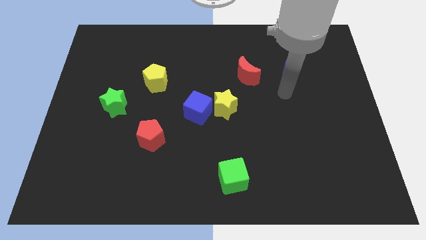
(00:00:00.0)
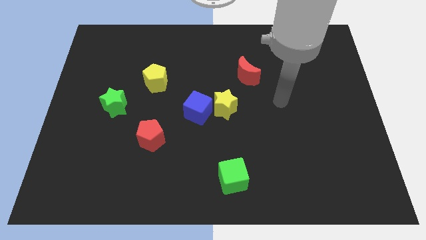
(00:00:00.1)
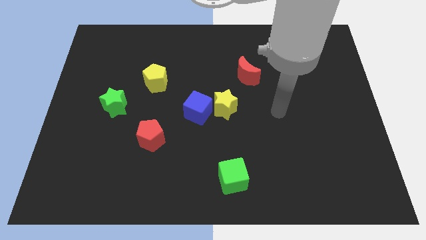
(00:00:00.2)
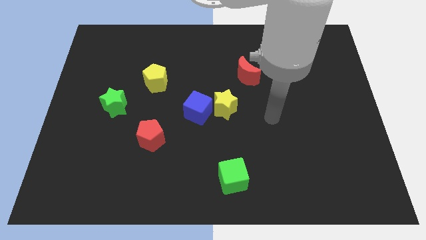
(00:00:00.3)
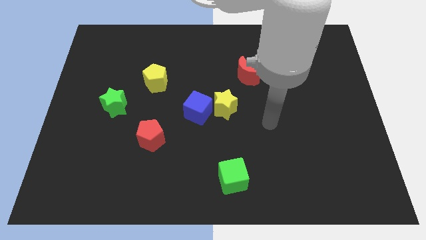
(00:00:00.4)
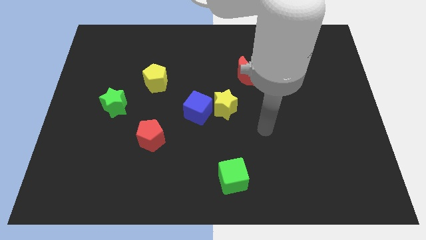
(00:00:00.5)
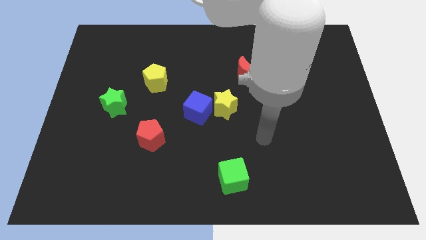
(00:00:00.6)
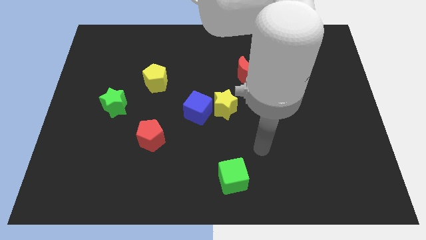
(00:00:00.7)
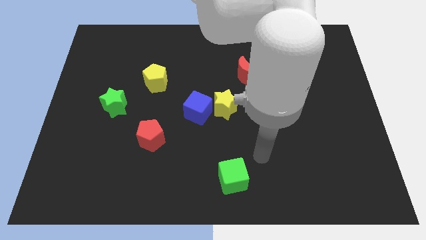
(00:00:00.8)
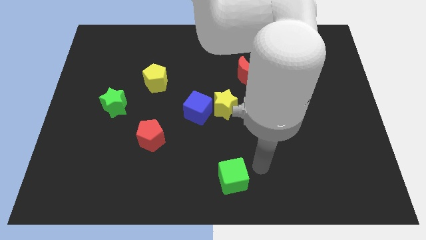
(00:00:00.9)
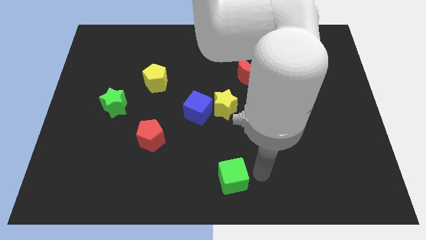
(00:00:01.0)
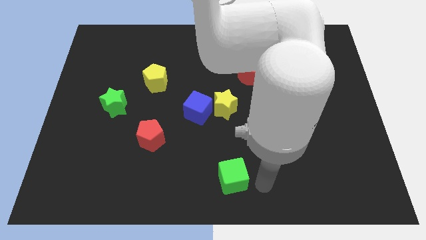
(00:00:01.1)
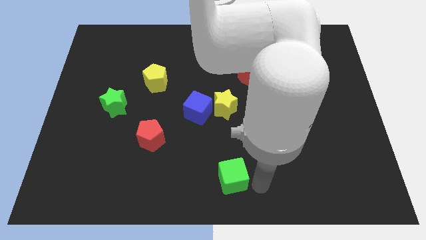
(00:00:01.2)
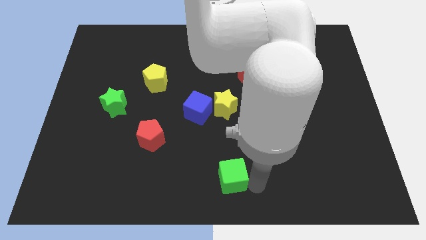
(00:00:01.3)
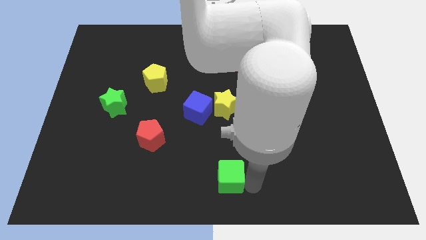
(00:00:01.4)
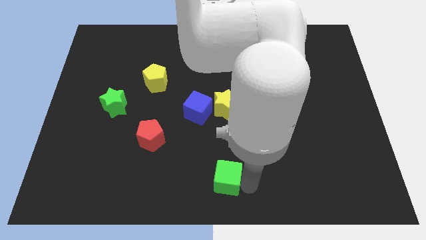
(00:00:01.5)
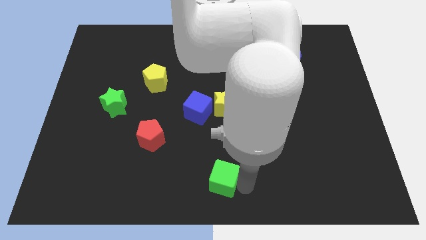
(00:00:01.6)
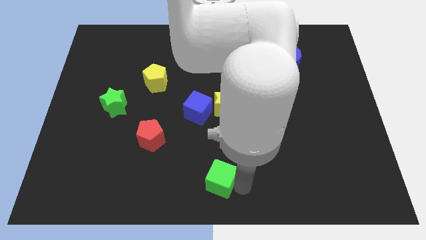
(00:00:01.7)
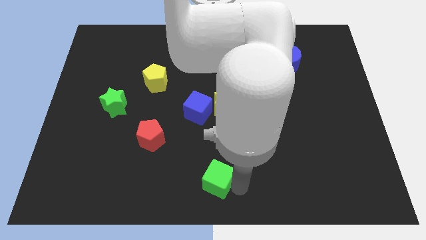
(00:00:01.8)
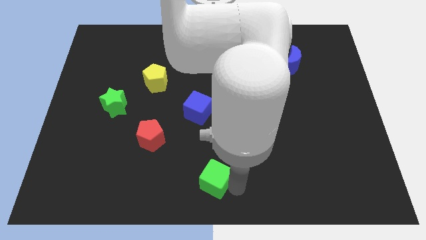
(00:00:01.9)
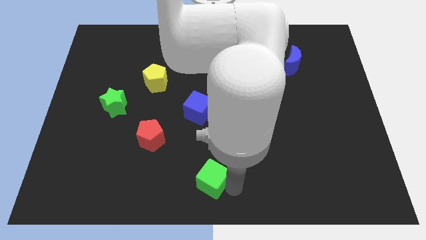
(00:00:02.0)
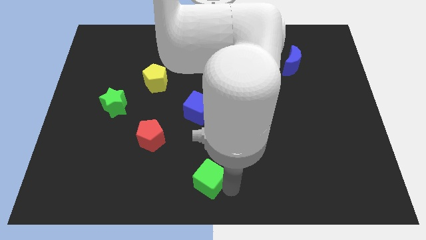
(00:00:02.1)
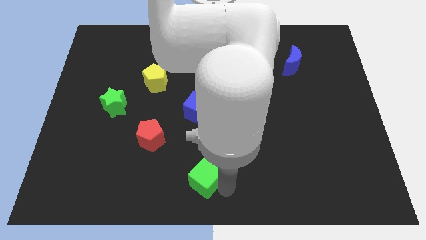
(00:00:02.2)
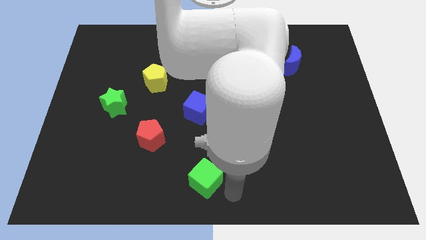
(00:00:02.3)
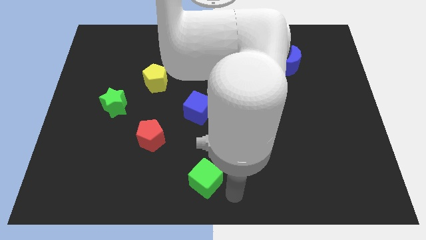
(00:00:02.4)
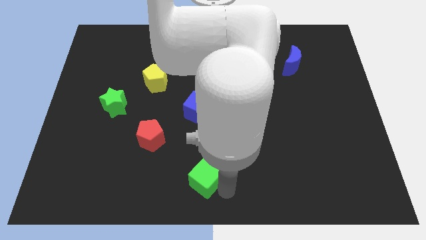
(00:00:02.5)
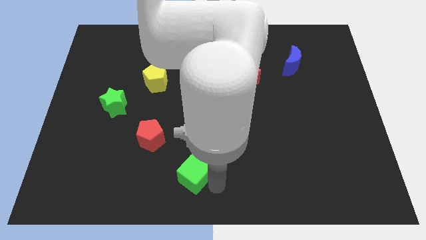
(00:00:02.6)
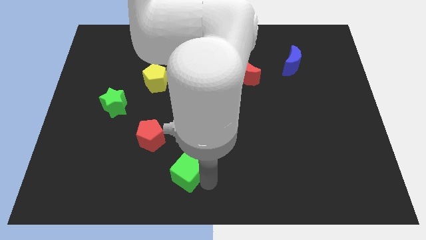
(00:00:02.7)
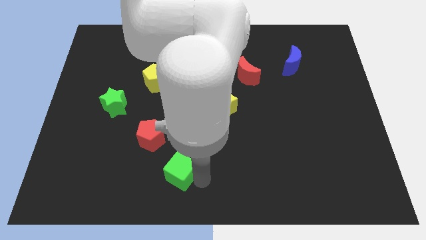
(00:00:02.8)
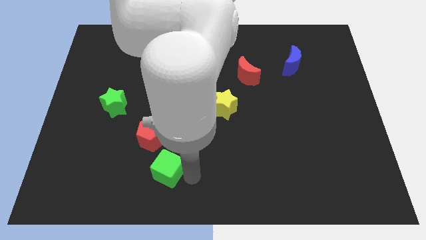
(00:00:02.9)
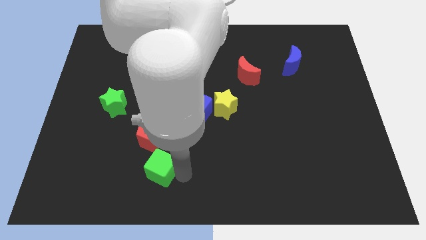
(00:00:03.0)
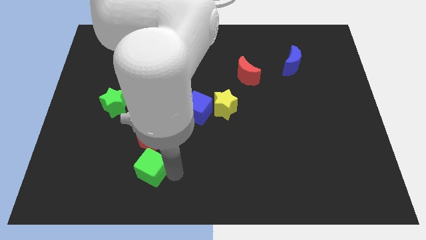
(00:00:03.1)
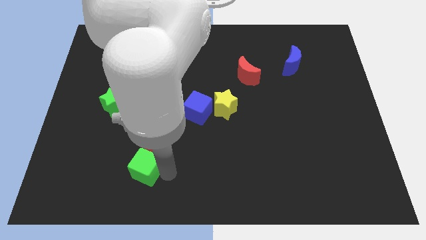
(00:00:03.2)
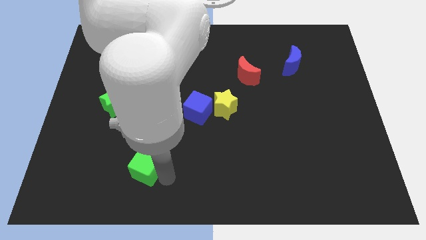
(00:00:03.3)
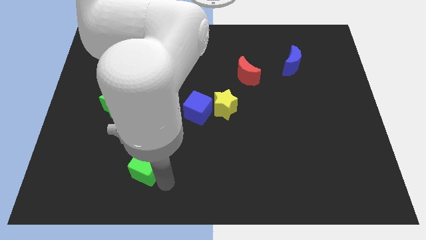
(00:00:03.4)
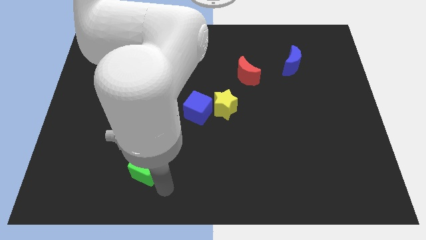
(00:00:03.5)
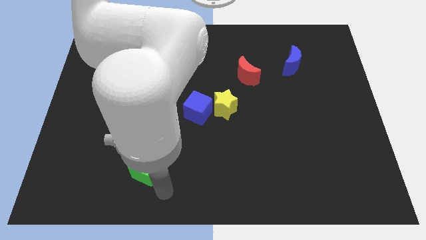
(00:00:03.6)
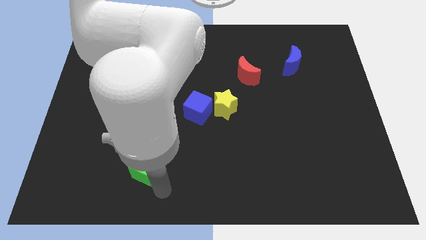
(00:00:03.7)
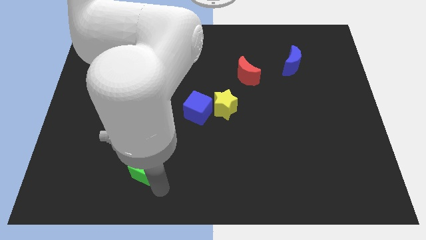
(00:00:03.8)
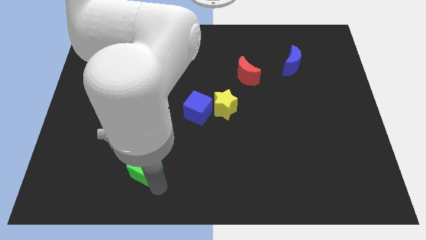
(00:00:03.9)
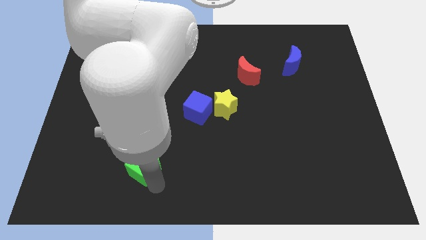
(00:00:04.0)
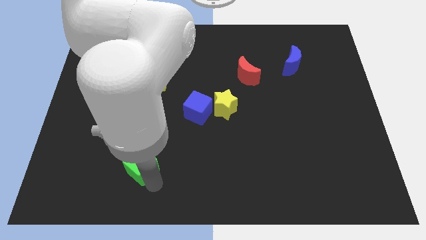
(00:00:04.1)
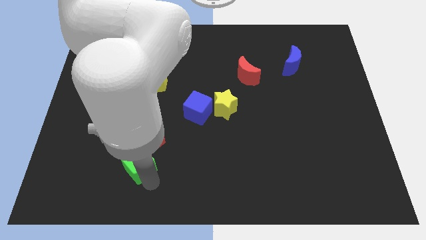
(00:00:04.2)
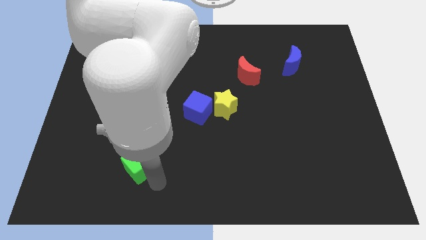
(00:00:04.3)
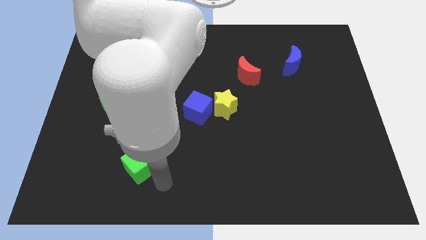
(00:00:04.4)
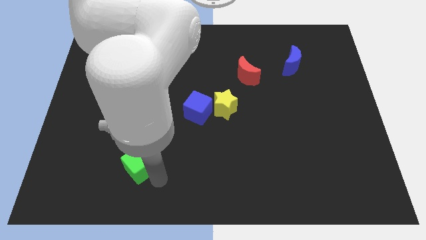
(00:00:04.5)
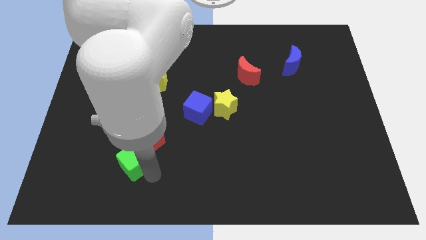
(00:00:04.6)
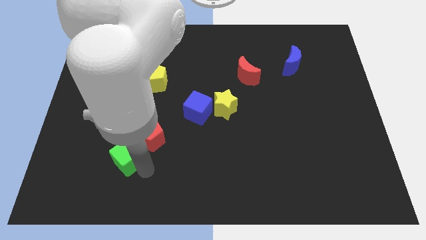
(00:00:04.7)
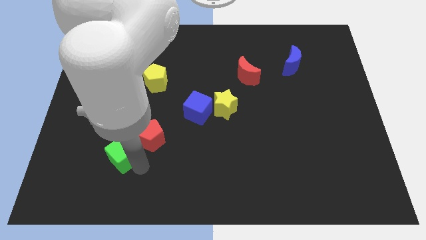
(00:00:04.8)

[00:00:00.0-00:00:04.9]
push the green cube just left of the red pentagon

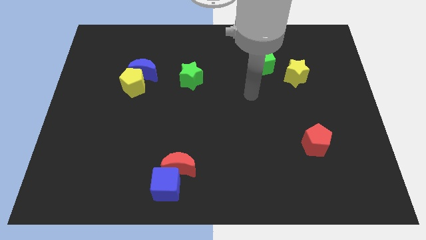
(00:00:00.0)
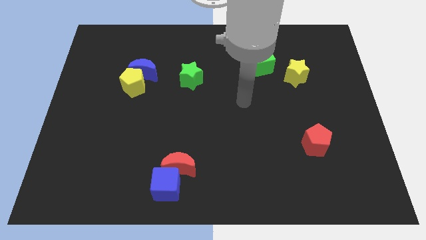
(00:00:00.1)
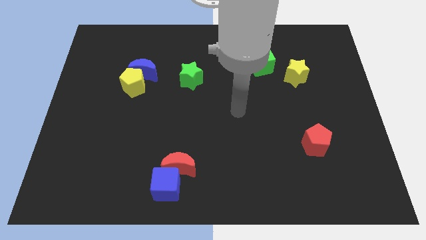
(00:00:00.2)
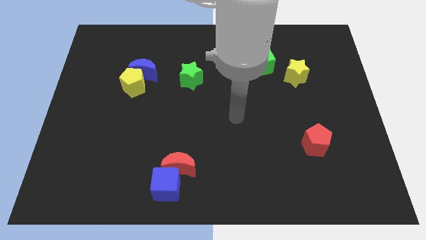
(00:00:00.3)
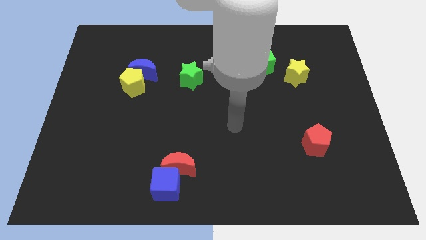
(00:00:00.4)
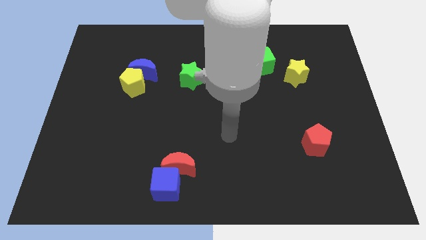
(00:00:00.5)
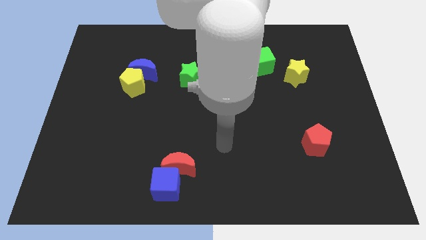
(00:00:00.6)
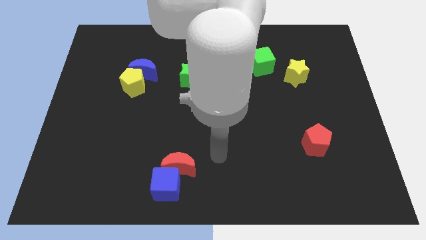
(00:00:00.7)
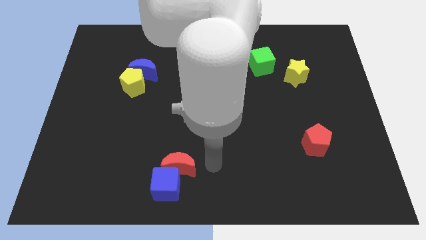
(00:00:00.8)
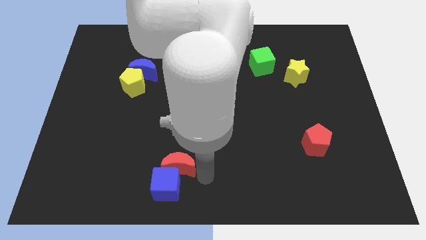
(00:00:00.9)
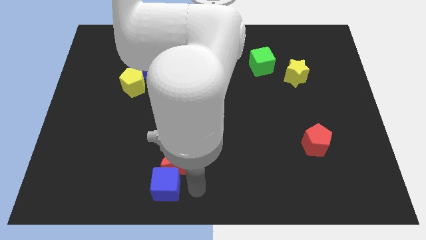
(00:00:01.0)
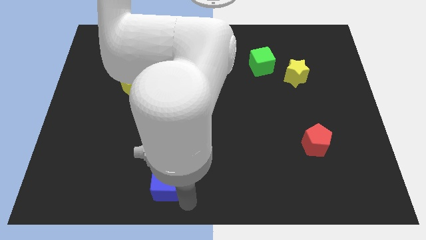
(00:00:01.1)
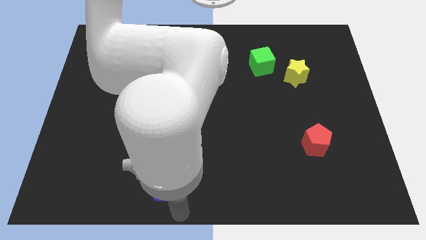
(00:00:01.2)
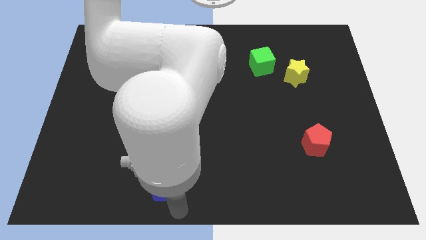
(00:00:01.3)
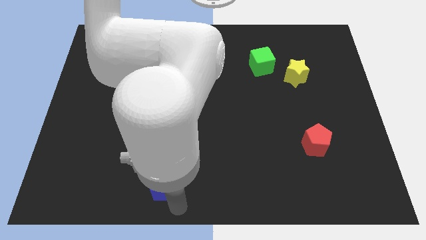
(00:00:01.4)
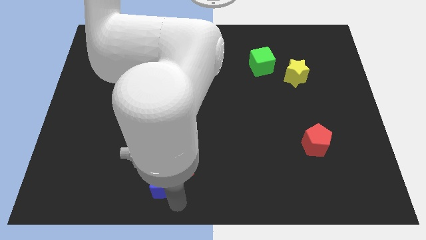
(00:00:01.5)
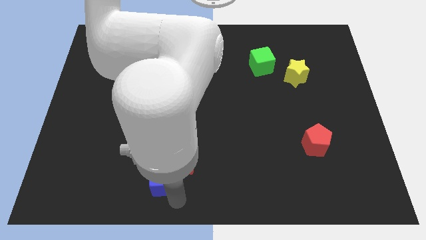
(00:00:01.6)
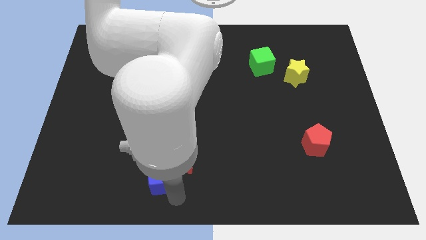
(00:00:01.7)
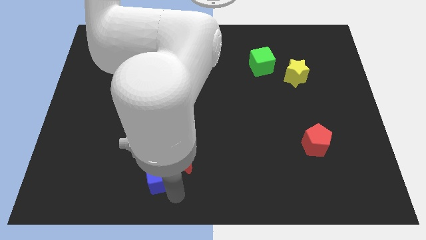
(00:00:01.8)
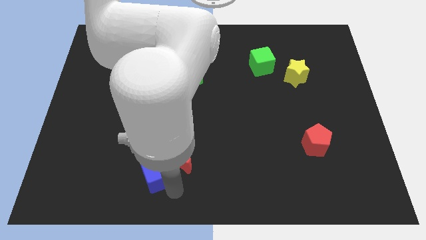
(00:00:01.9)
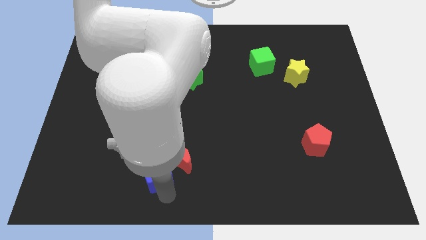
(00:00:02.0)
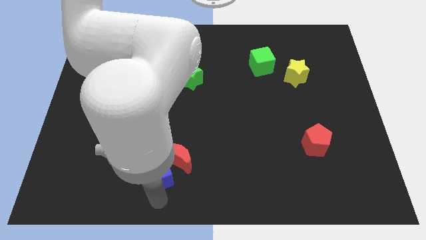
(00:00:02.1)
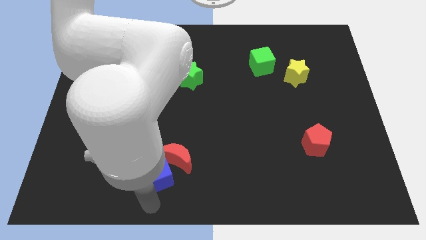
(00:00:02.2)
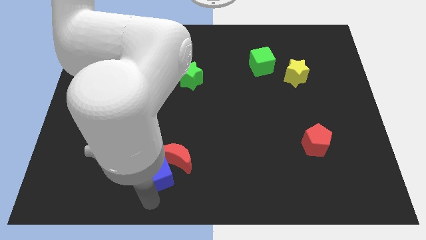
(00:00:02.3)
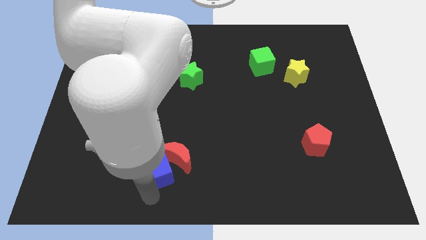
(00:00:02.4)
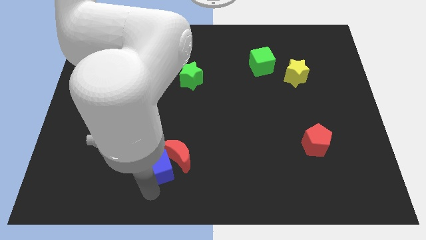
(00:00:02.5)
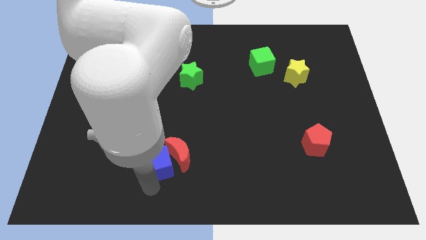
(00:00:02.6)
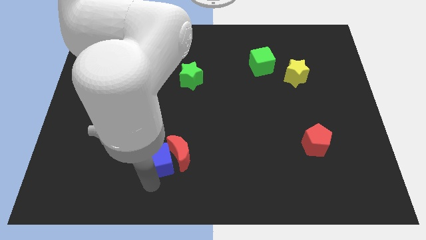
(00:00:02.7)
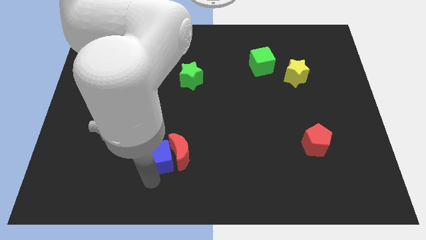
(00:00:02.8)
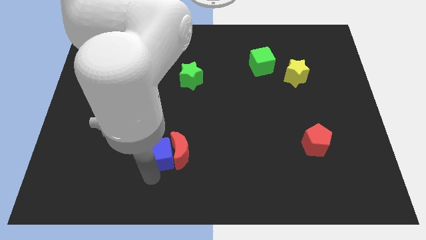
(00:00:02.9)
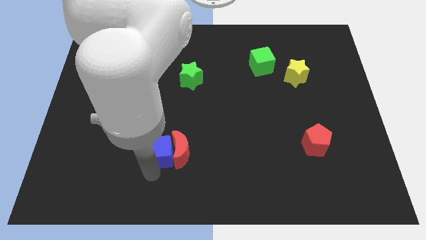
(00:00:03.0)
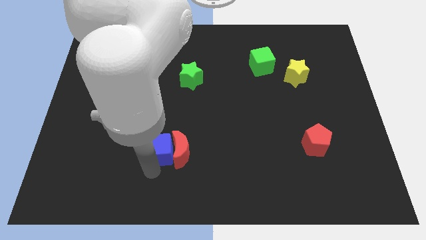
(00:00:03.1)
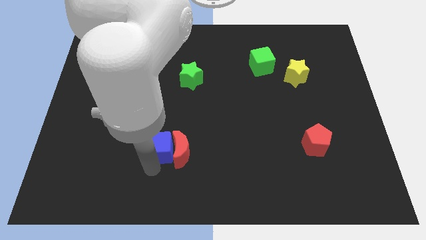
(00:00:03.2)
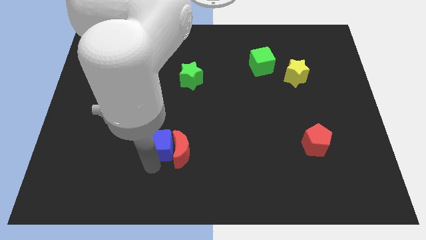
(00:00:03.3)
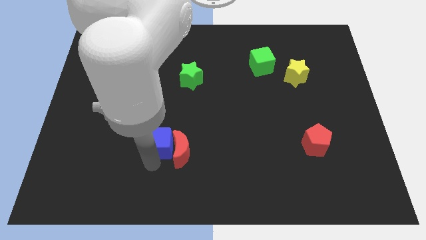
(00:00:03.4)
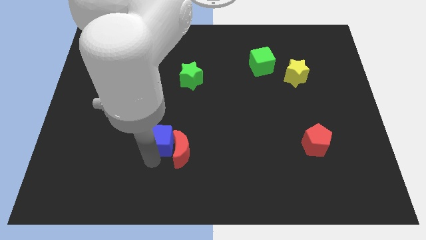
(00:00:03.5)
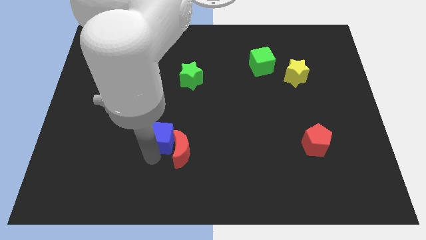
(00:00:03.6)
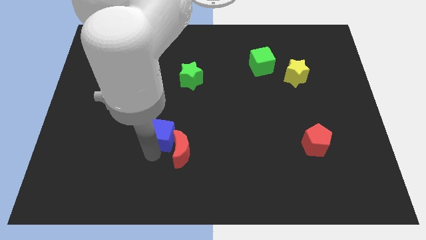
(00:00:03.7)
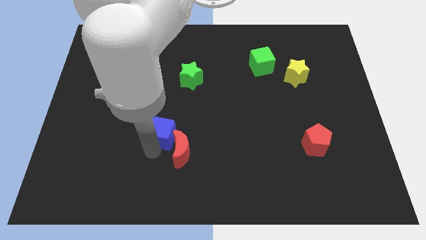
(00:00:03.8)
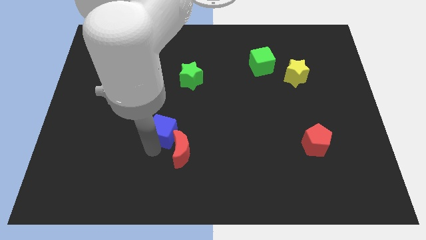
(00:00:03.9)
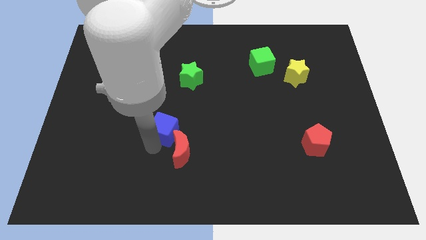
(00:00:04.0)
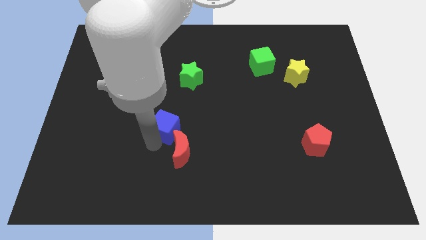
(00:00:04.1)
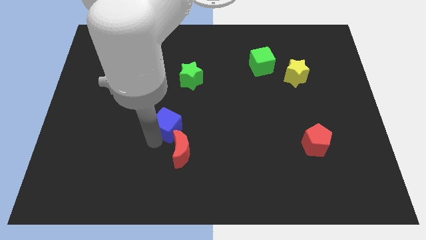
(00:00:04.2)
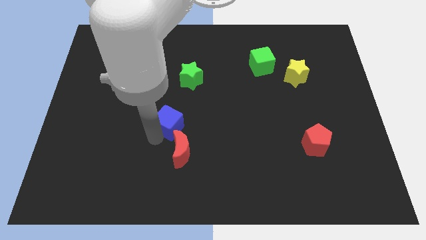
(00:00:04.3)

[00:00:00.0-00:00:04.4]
slide the blue cube below the green star
